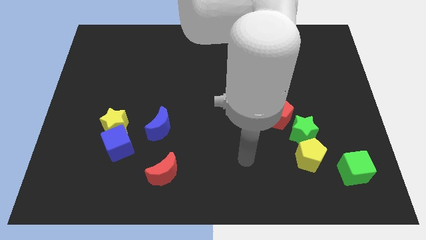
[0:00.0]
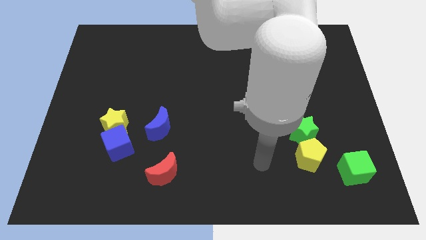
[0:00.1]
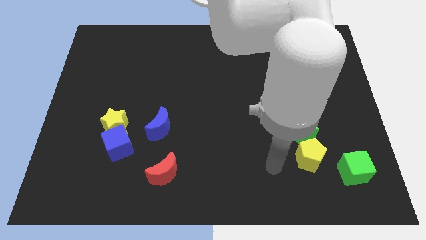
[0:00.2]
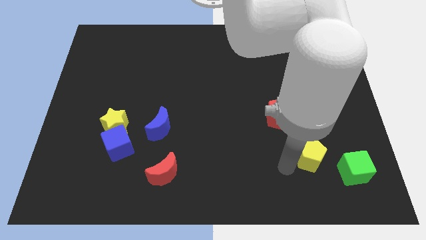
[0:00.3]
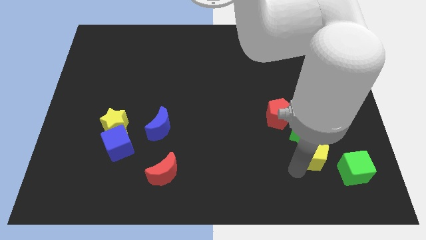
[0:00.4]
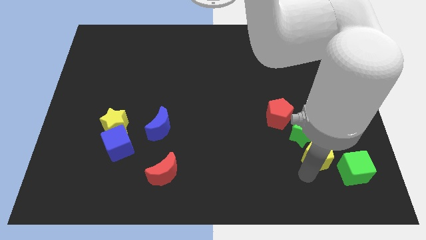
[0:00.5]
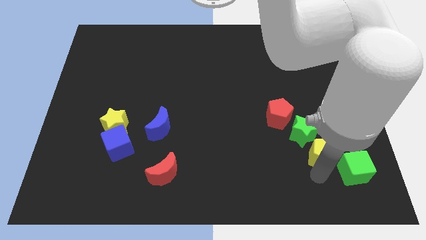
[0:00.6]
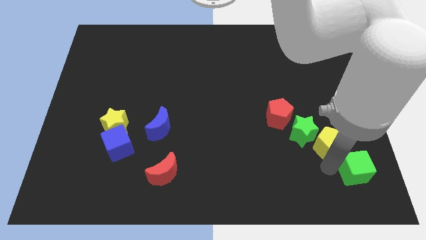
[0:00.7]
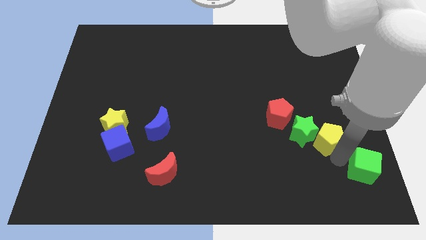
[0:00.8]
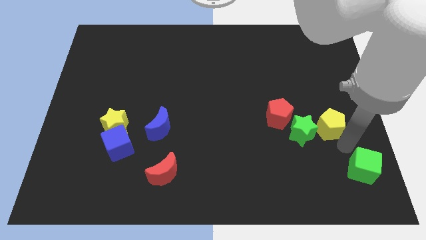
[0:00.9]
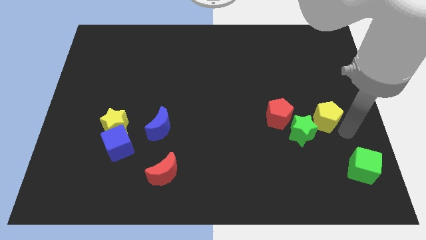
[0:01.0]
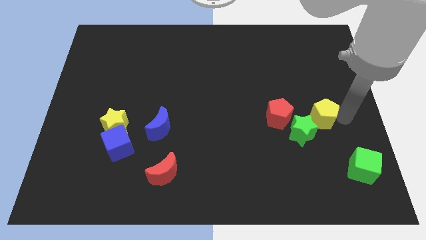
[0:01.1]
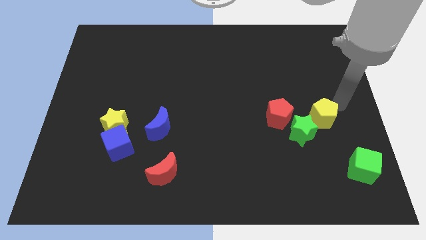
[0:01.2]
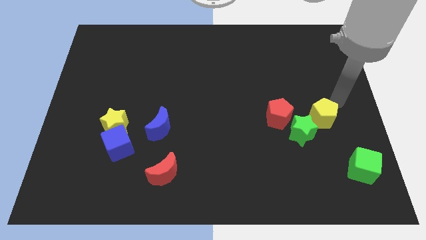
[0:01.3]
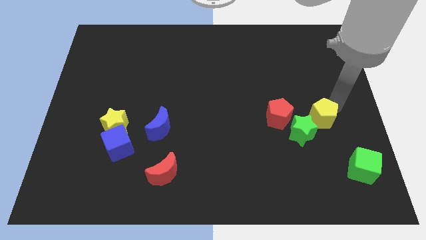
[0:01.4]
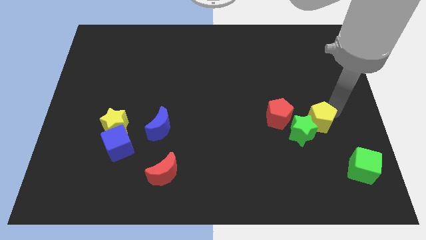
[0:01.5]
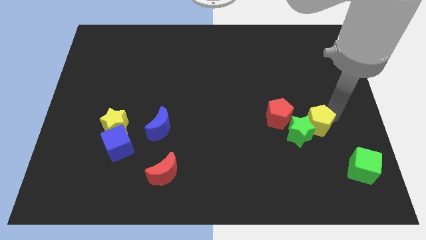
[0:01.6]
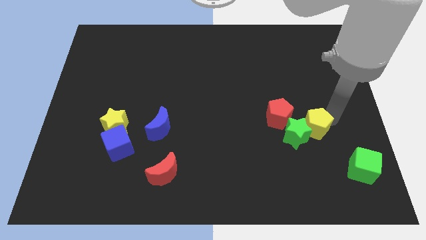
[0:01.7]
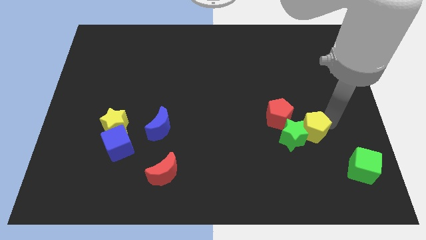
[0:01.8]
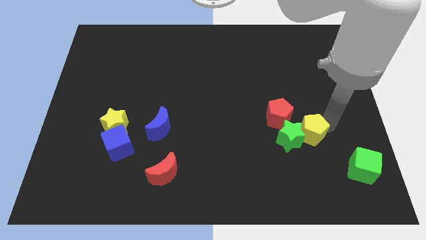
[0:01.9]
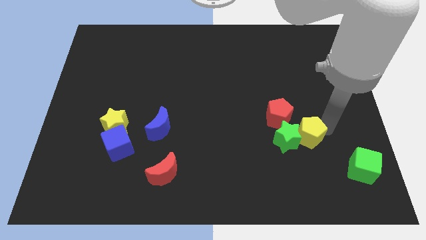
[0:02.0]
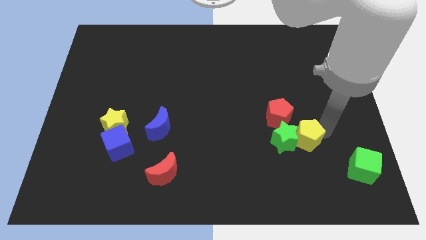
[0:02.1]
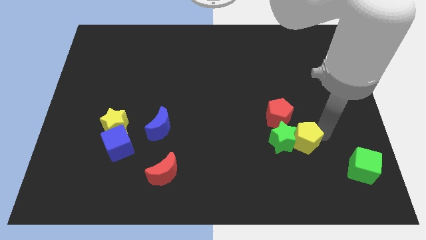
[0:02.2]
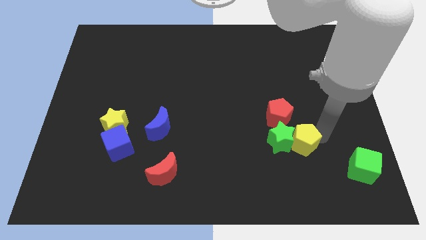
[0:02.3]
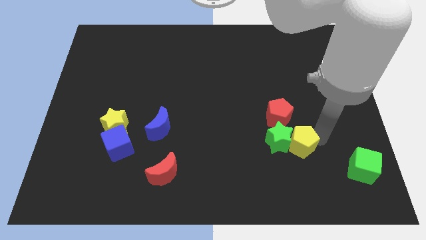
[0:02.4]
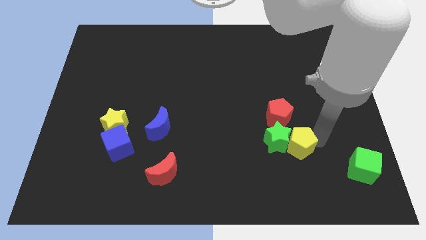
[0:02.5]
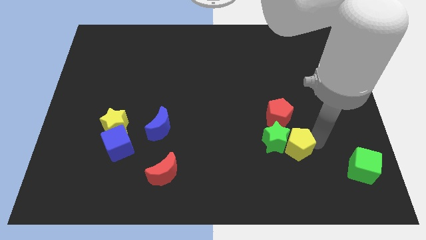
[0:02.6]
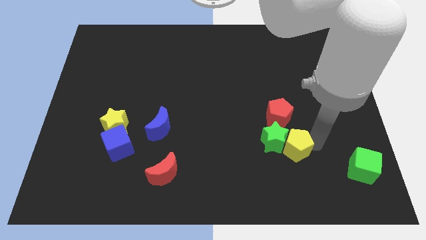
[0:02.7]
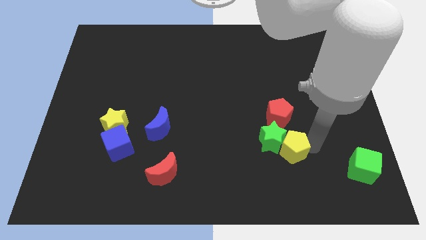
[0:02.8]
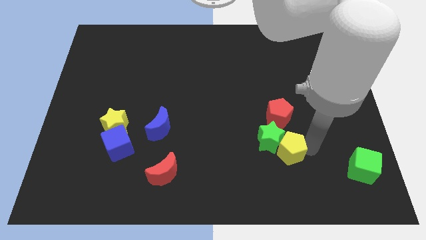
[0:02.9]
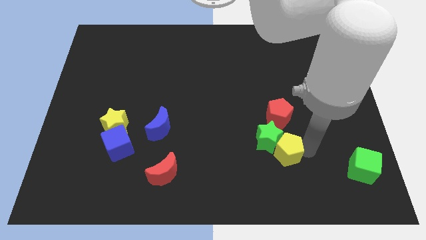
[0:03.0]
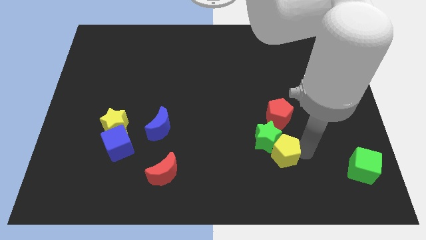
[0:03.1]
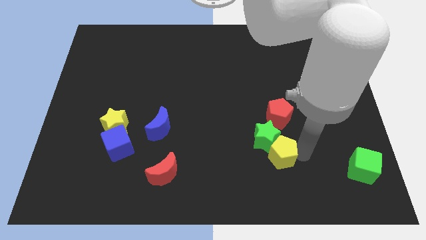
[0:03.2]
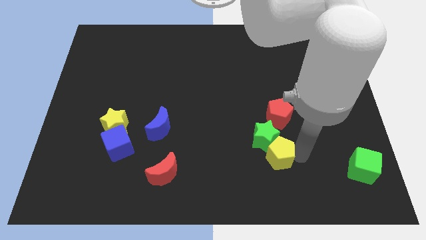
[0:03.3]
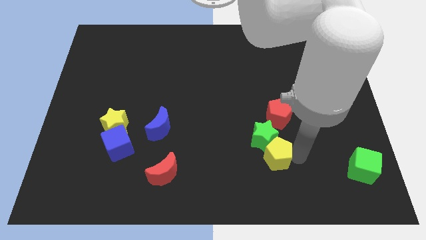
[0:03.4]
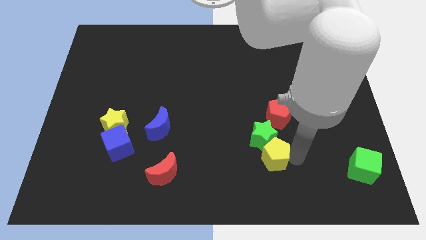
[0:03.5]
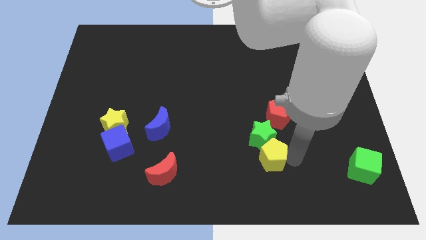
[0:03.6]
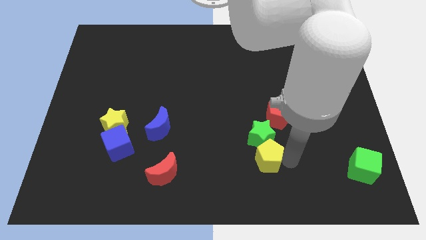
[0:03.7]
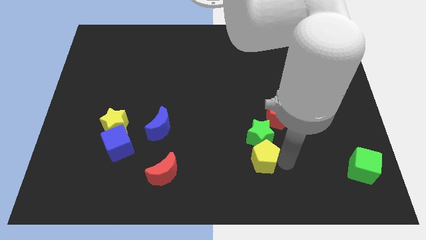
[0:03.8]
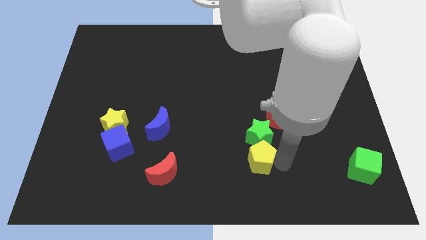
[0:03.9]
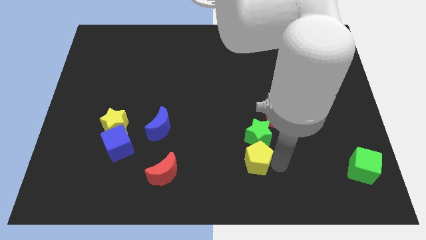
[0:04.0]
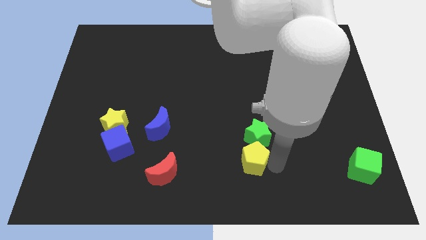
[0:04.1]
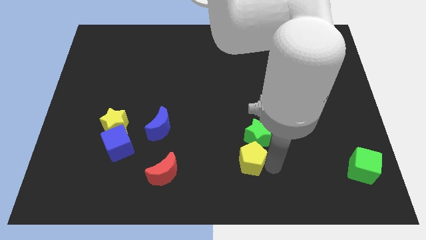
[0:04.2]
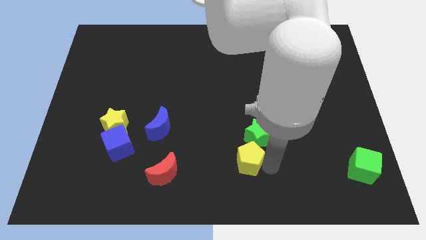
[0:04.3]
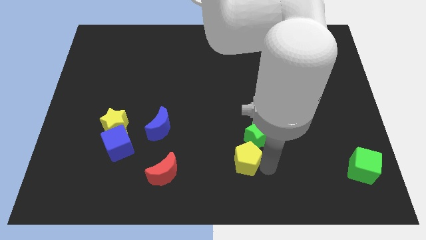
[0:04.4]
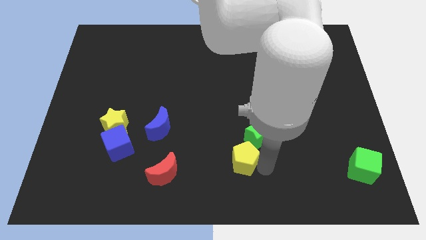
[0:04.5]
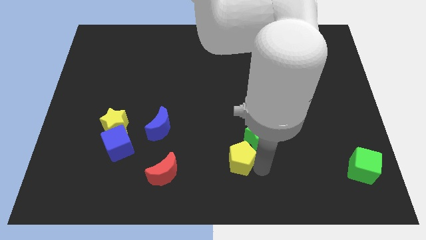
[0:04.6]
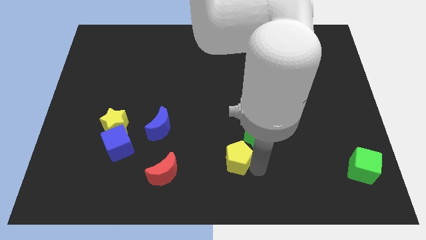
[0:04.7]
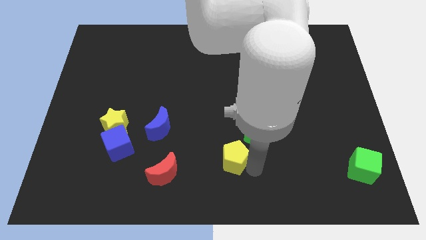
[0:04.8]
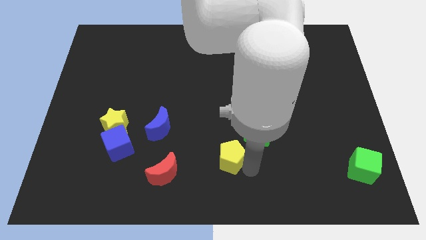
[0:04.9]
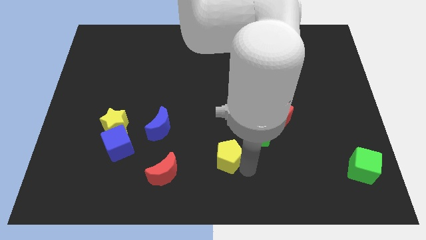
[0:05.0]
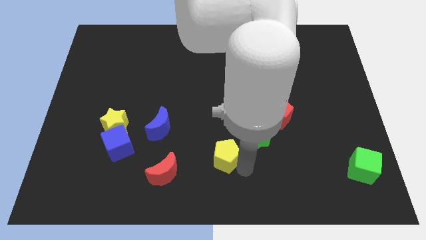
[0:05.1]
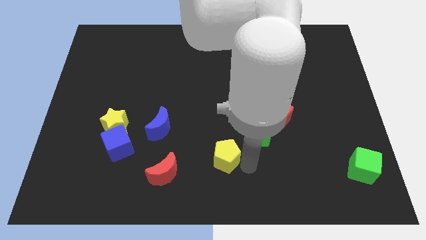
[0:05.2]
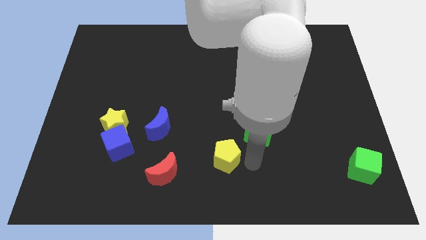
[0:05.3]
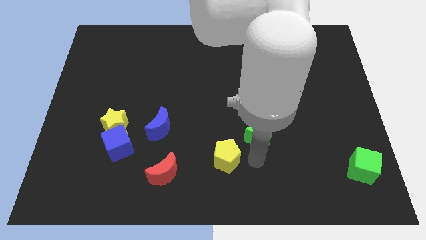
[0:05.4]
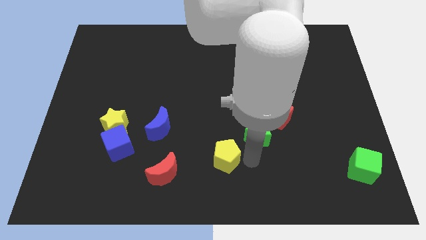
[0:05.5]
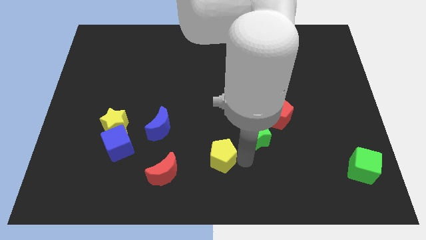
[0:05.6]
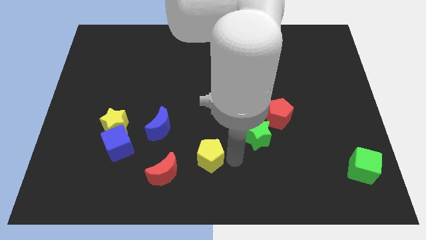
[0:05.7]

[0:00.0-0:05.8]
move the yellow pentagon left

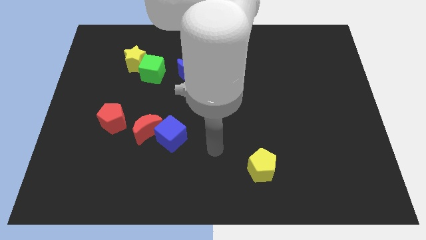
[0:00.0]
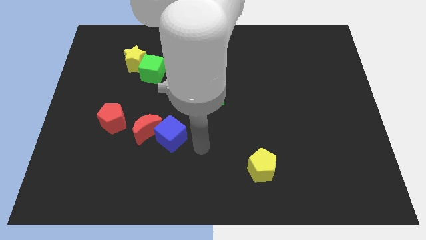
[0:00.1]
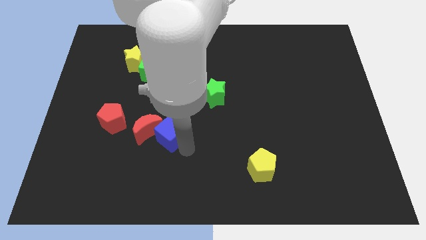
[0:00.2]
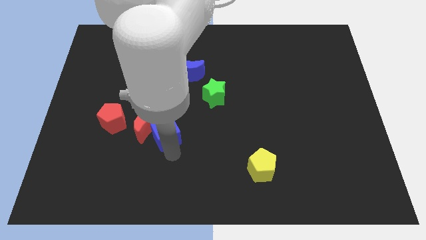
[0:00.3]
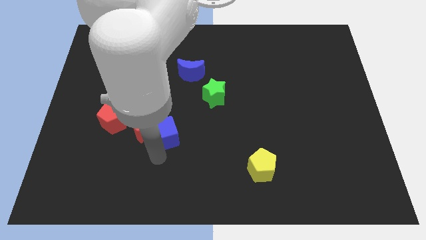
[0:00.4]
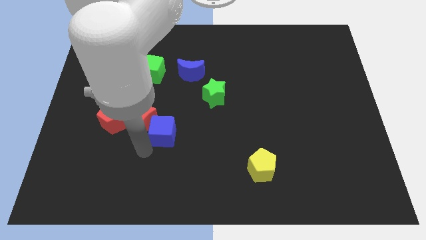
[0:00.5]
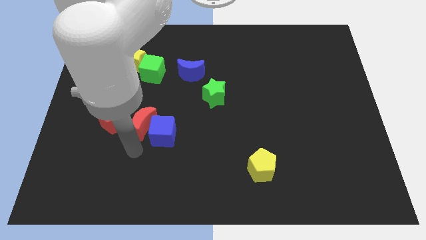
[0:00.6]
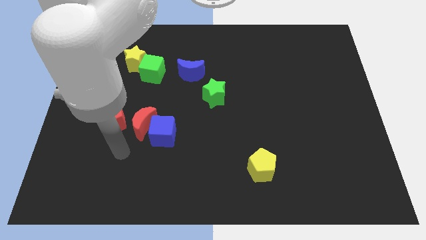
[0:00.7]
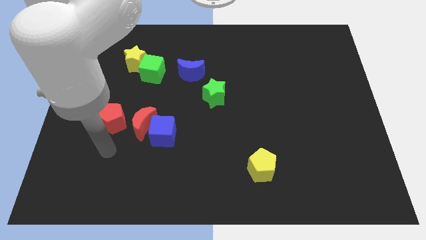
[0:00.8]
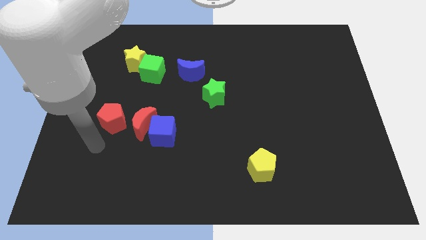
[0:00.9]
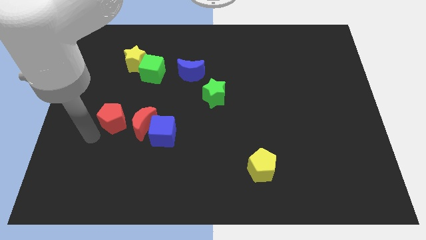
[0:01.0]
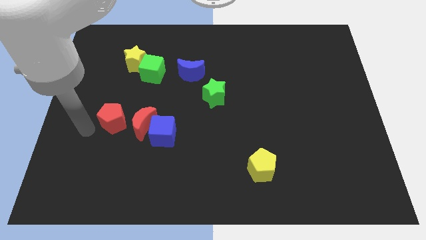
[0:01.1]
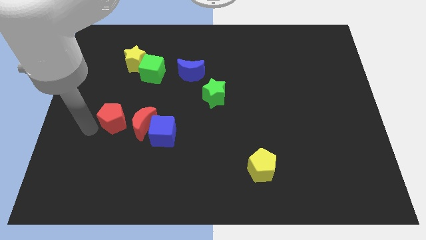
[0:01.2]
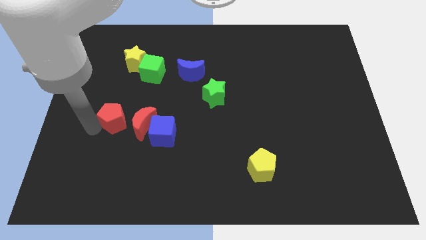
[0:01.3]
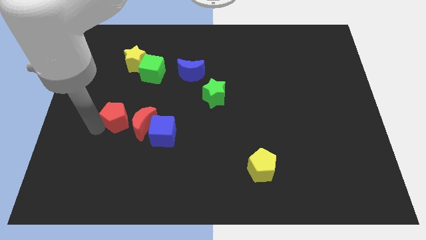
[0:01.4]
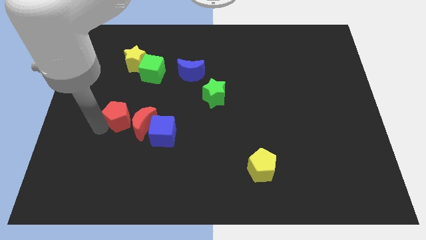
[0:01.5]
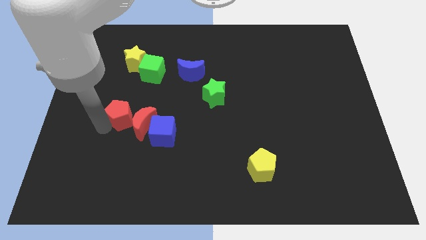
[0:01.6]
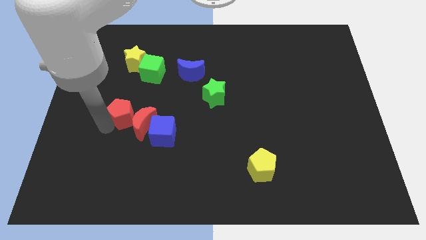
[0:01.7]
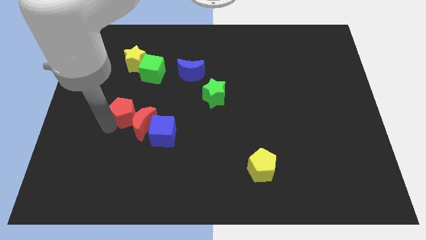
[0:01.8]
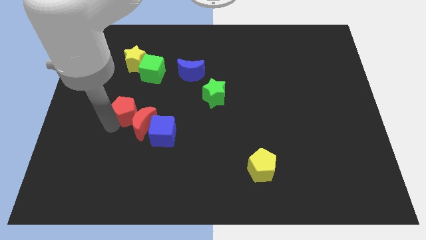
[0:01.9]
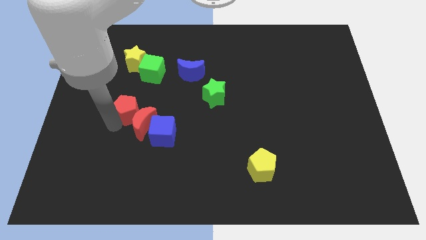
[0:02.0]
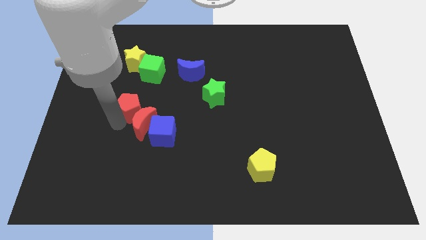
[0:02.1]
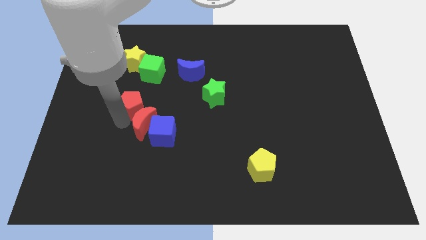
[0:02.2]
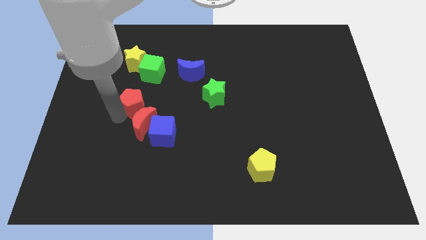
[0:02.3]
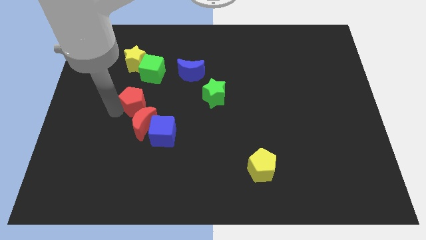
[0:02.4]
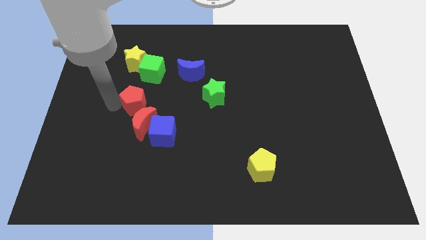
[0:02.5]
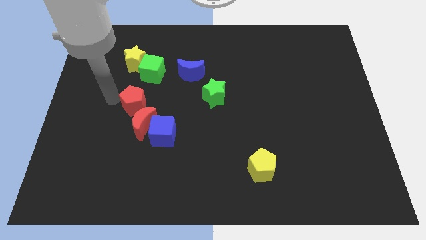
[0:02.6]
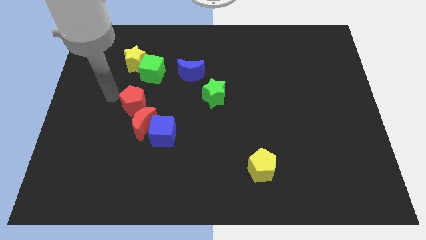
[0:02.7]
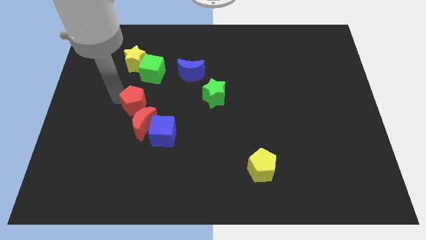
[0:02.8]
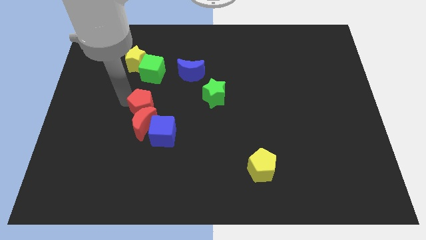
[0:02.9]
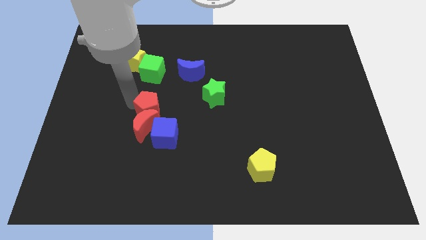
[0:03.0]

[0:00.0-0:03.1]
slide the red pentagon right a little bit
